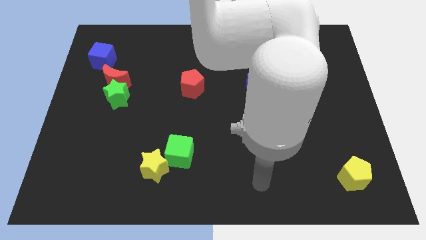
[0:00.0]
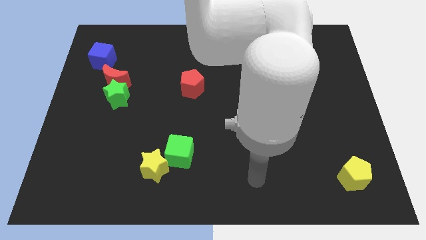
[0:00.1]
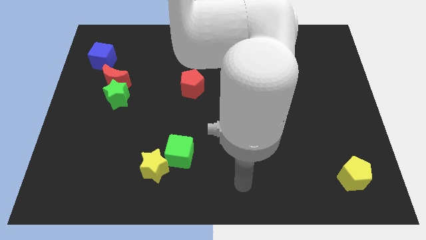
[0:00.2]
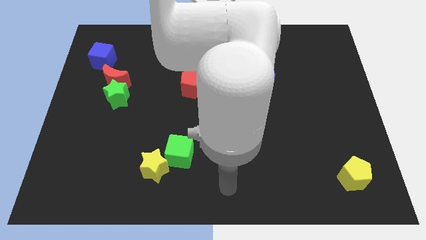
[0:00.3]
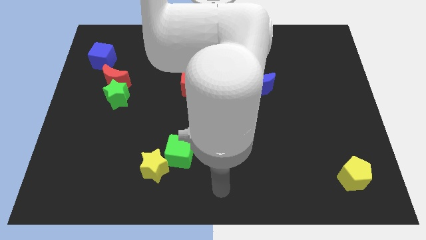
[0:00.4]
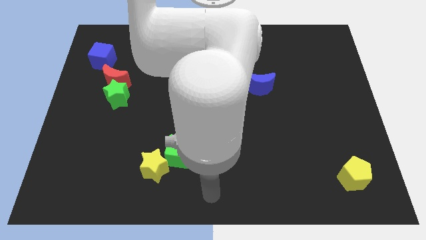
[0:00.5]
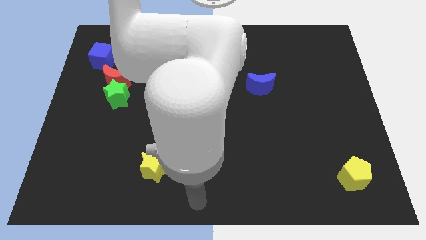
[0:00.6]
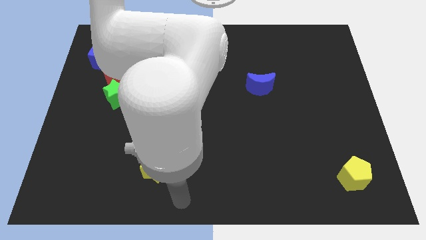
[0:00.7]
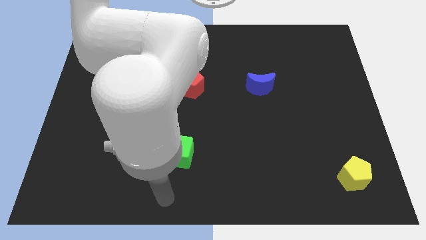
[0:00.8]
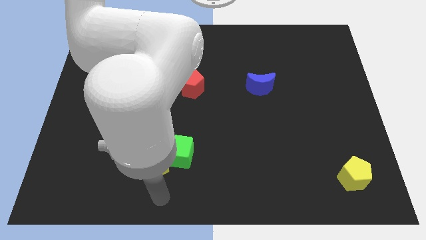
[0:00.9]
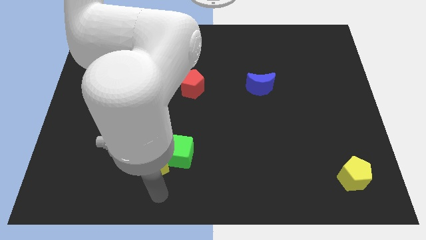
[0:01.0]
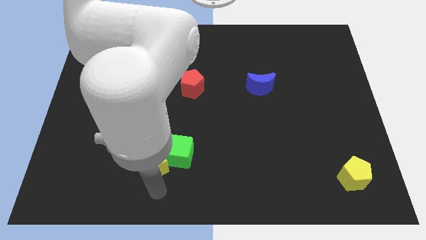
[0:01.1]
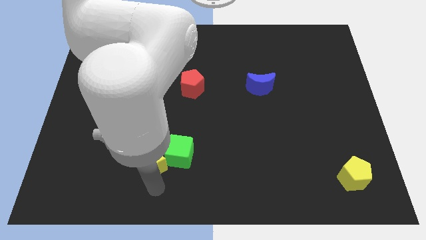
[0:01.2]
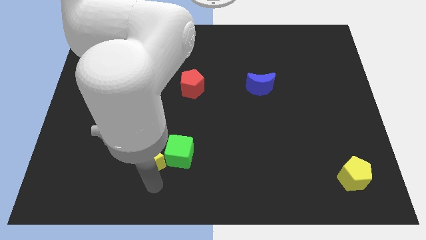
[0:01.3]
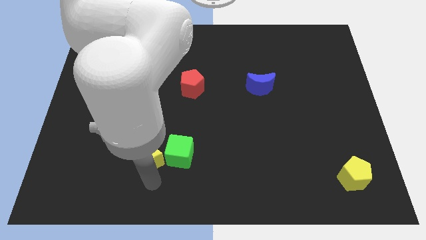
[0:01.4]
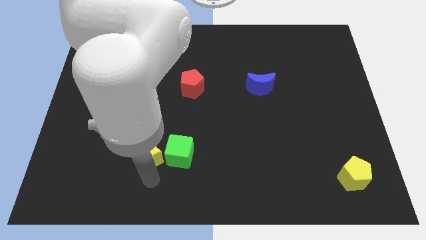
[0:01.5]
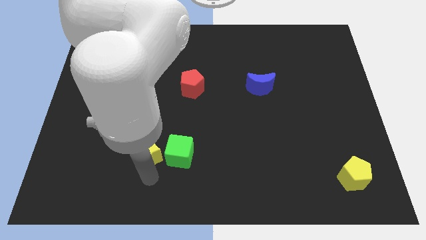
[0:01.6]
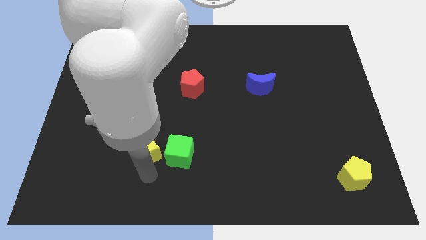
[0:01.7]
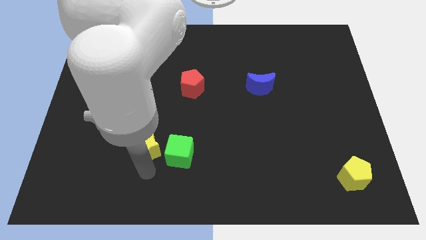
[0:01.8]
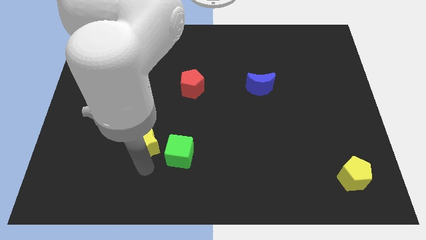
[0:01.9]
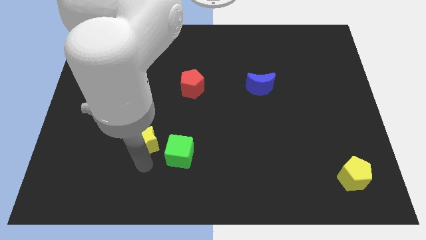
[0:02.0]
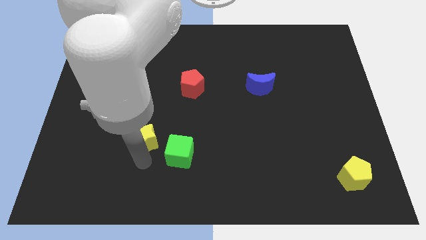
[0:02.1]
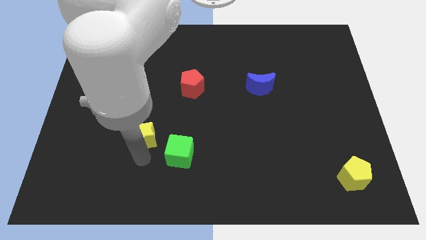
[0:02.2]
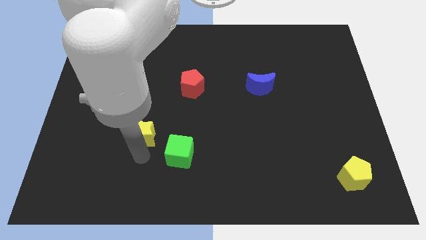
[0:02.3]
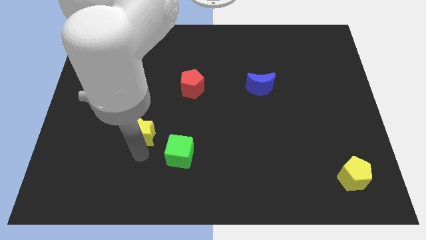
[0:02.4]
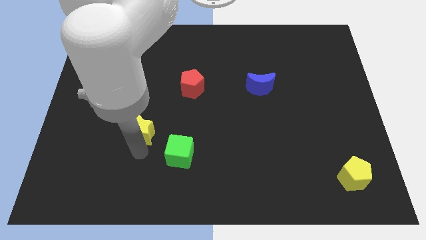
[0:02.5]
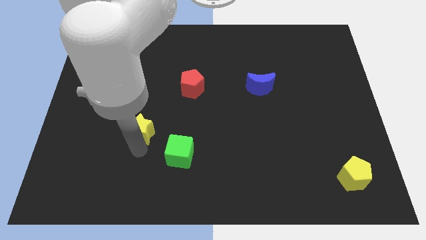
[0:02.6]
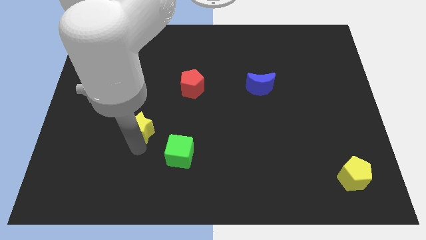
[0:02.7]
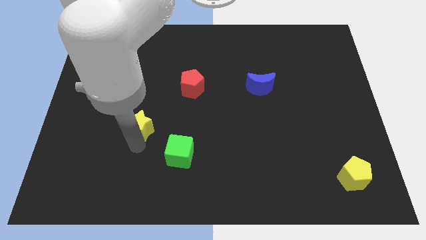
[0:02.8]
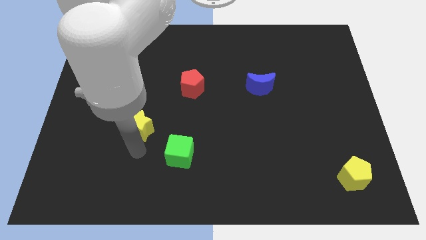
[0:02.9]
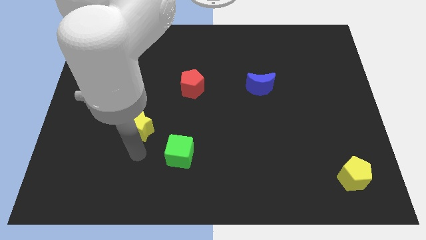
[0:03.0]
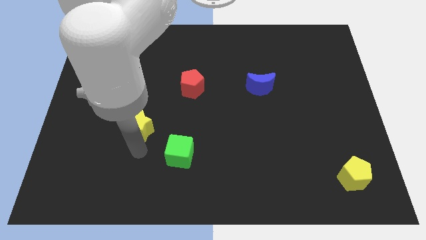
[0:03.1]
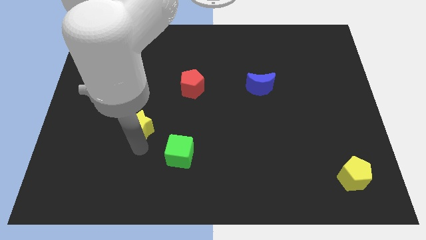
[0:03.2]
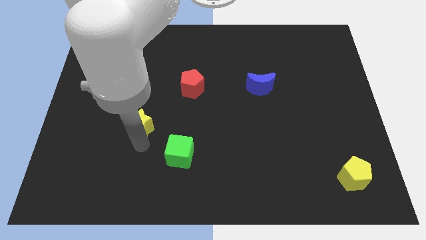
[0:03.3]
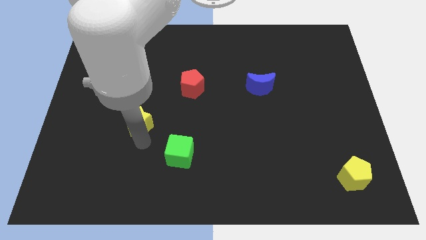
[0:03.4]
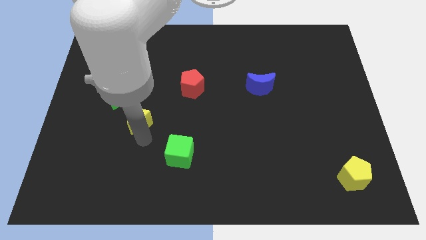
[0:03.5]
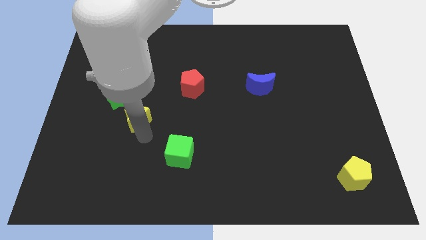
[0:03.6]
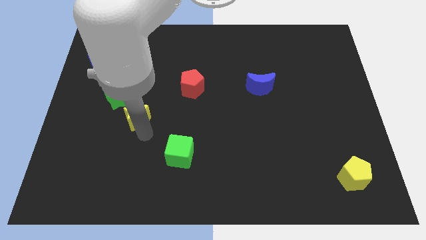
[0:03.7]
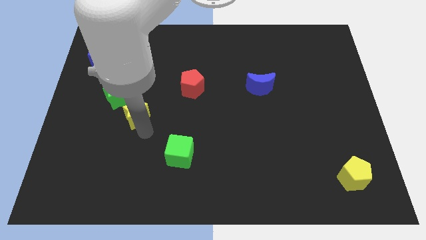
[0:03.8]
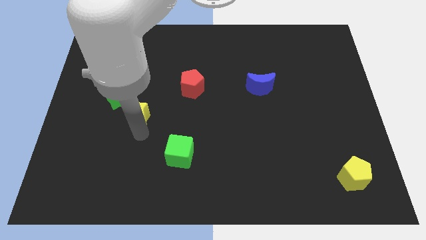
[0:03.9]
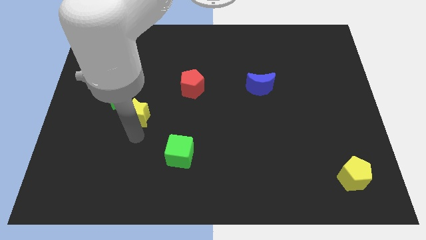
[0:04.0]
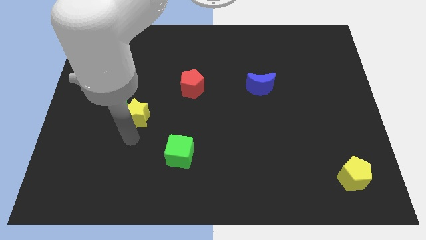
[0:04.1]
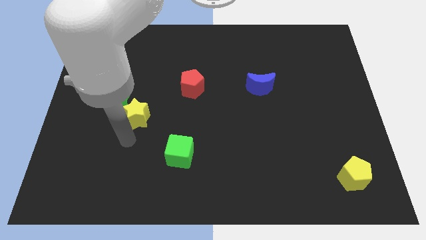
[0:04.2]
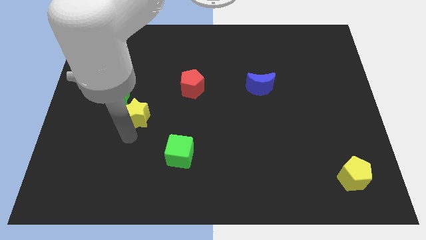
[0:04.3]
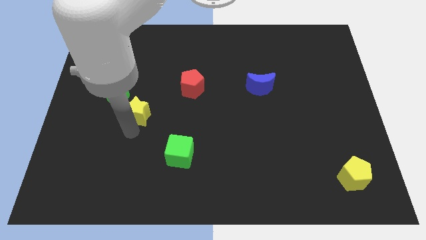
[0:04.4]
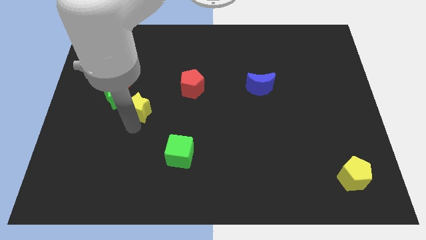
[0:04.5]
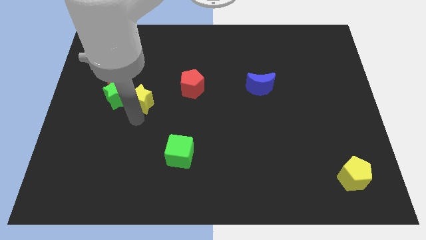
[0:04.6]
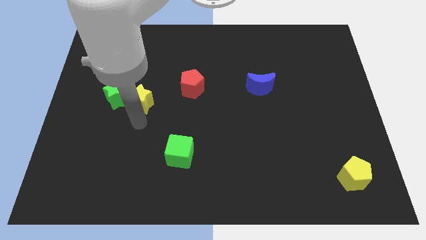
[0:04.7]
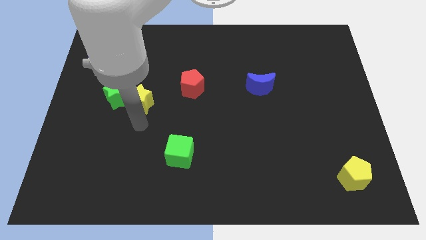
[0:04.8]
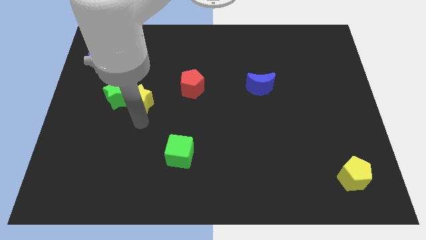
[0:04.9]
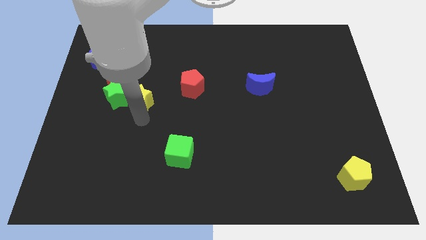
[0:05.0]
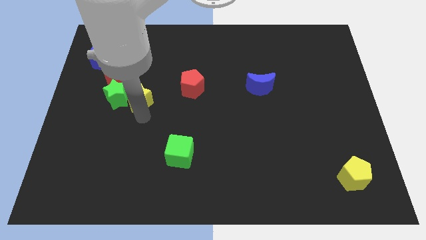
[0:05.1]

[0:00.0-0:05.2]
slide the yellow star to the top right side of the green star

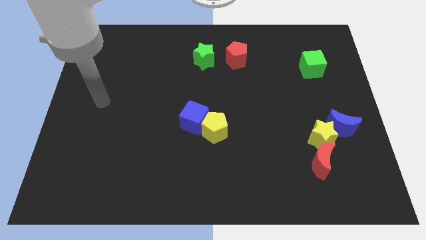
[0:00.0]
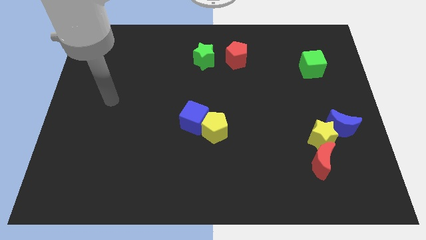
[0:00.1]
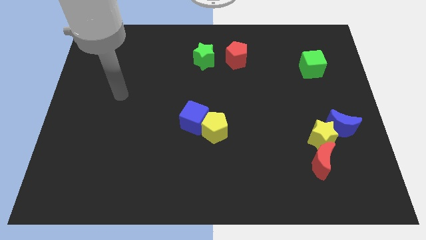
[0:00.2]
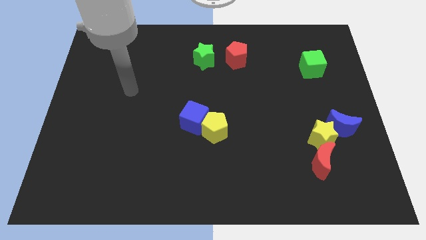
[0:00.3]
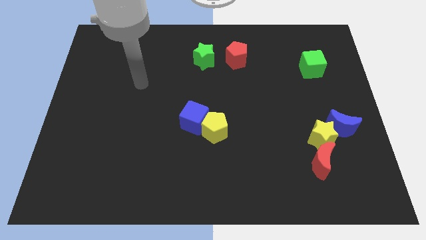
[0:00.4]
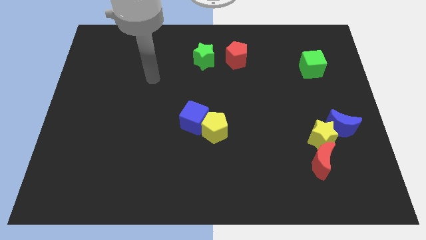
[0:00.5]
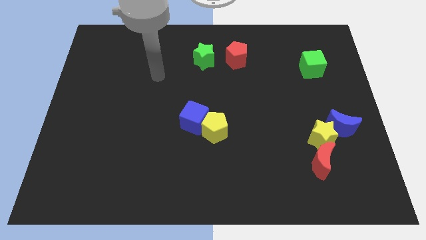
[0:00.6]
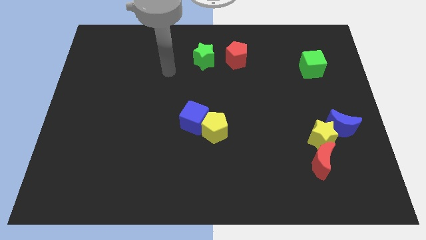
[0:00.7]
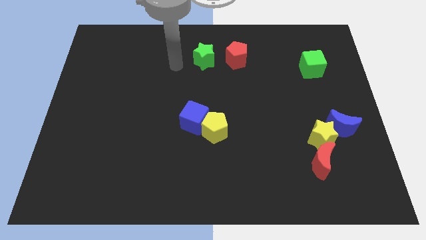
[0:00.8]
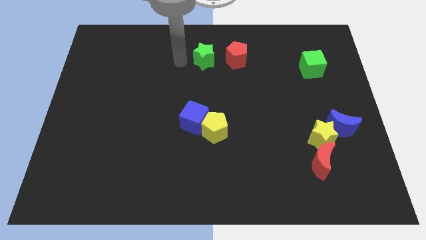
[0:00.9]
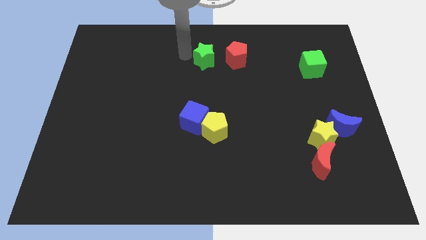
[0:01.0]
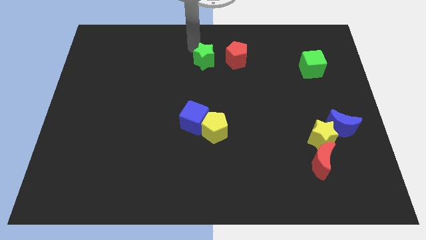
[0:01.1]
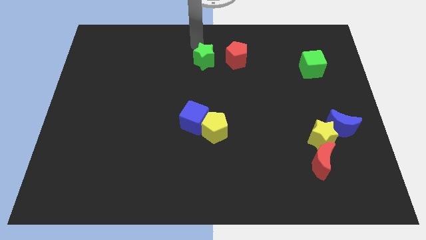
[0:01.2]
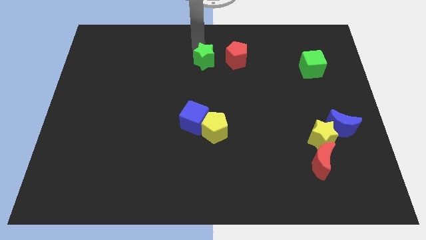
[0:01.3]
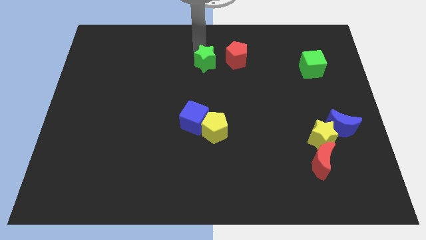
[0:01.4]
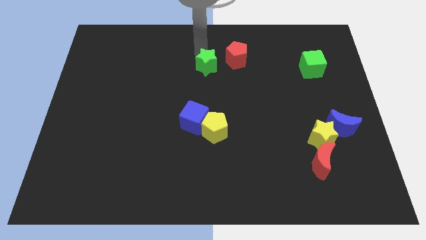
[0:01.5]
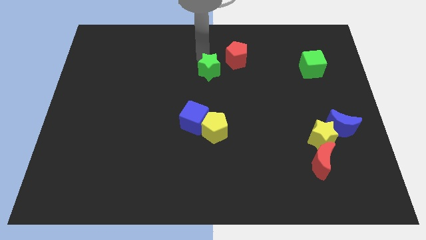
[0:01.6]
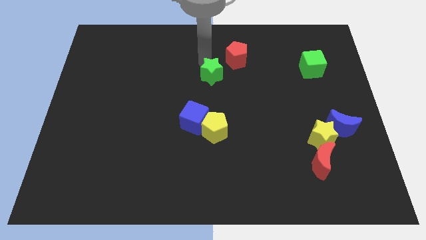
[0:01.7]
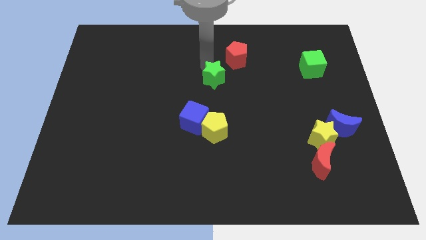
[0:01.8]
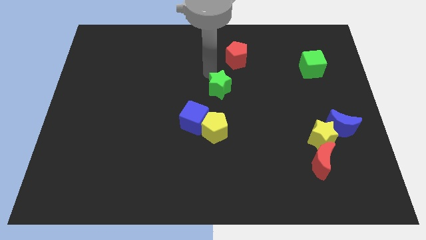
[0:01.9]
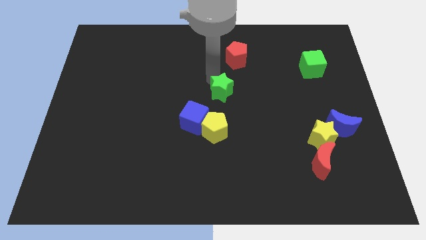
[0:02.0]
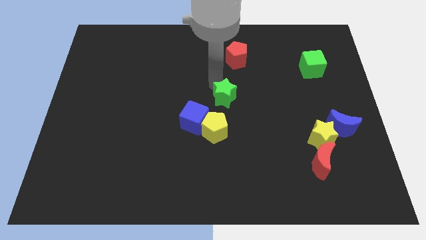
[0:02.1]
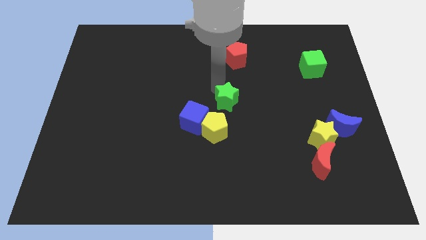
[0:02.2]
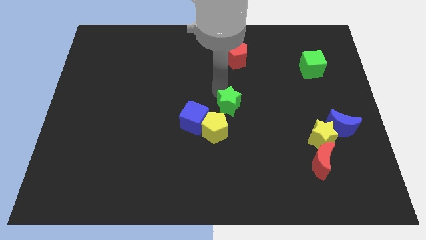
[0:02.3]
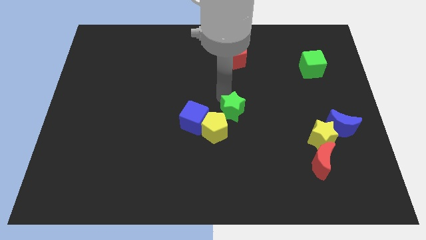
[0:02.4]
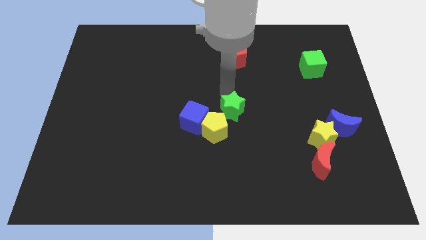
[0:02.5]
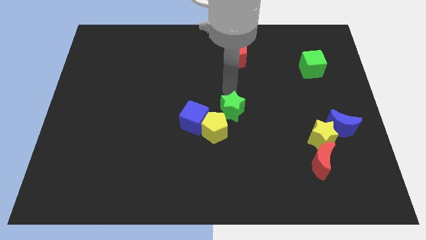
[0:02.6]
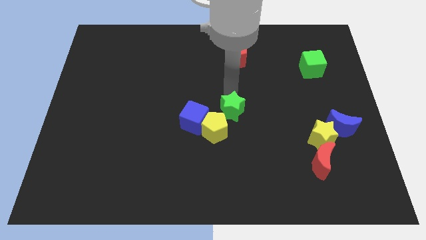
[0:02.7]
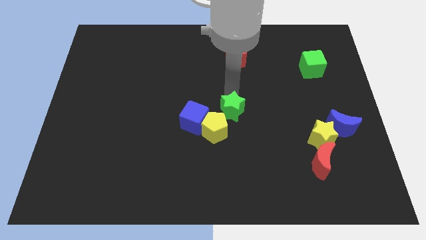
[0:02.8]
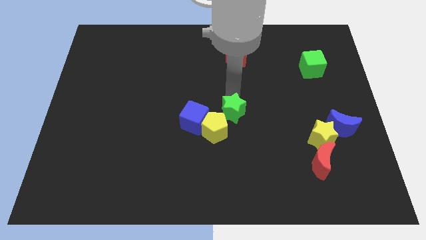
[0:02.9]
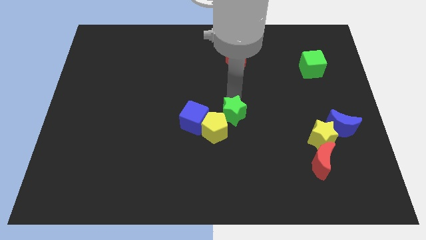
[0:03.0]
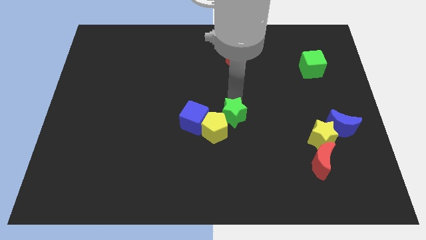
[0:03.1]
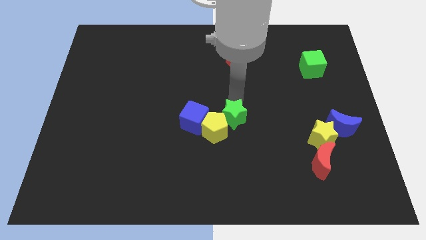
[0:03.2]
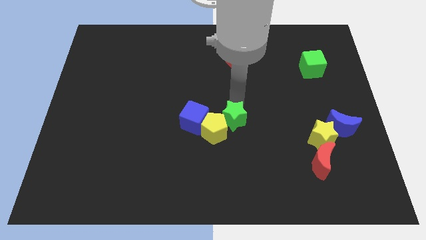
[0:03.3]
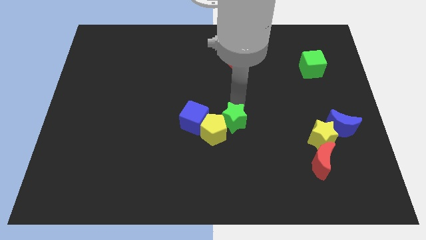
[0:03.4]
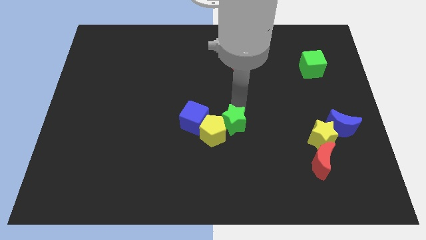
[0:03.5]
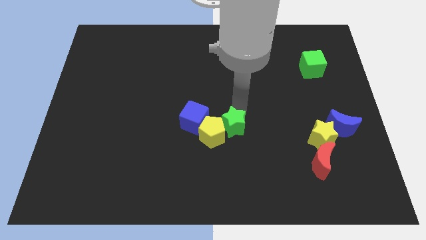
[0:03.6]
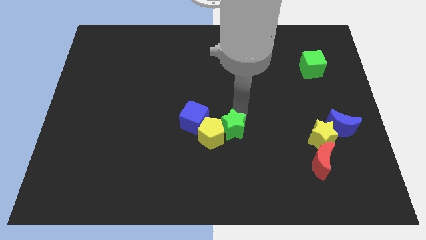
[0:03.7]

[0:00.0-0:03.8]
slide the green star to the bottom right side of the blue cube
